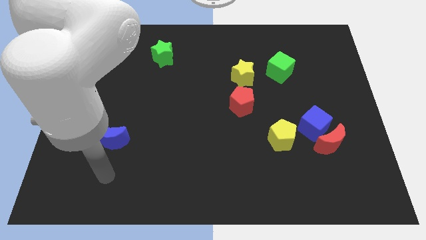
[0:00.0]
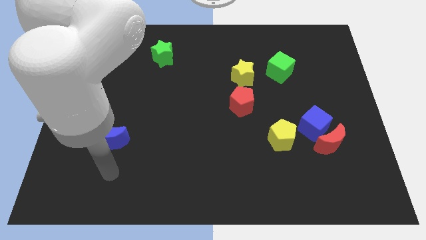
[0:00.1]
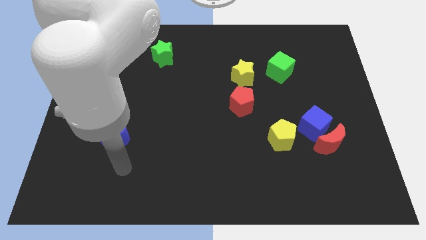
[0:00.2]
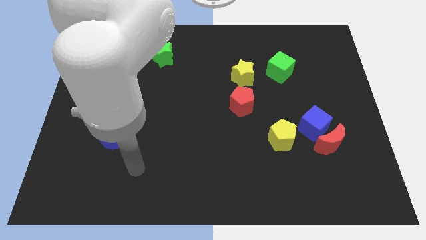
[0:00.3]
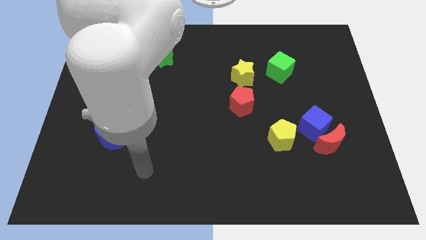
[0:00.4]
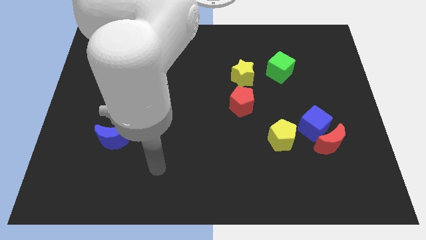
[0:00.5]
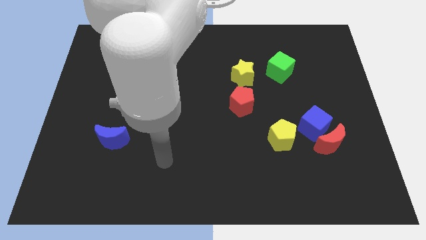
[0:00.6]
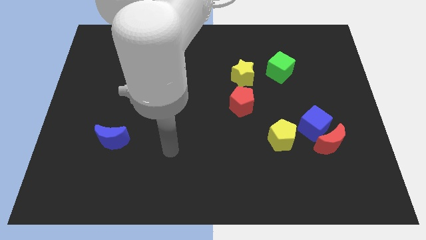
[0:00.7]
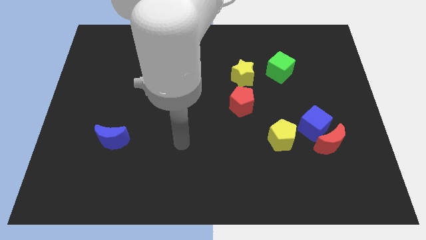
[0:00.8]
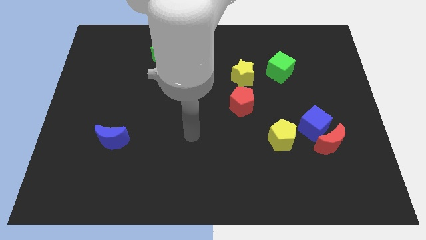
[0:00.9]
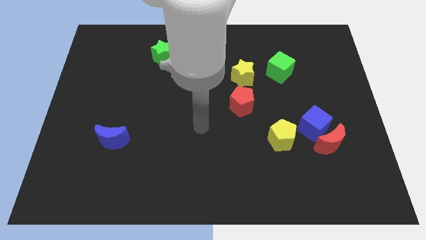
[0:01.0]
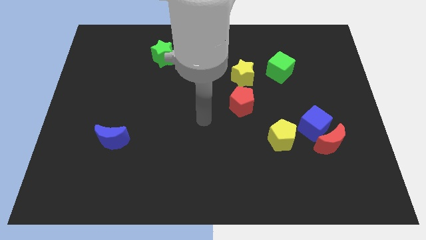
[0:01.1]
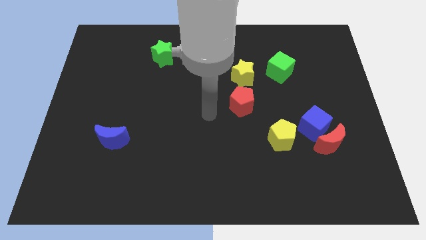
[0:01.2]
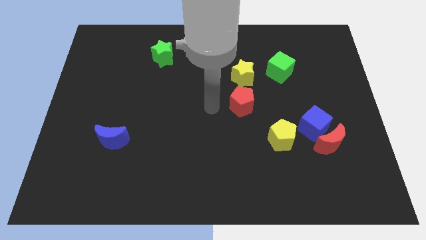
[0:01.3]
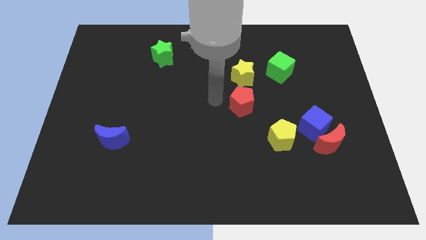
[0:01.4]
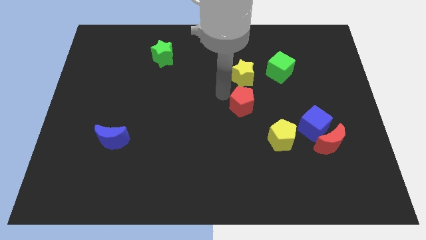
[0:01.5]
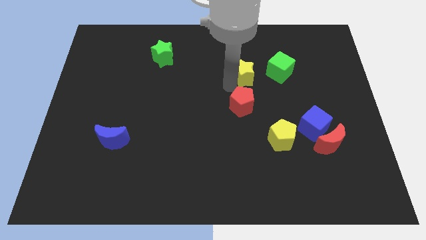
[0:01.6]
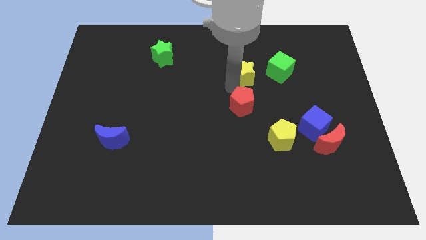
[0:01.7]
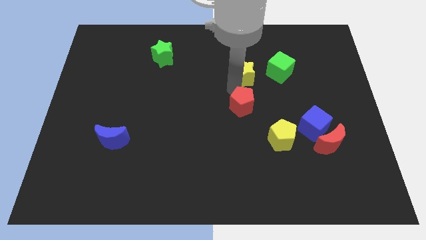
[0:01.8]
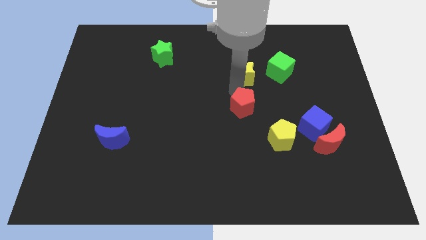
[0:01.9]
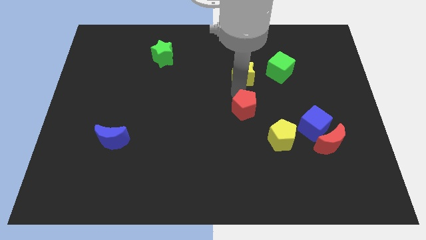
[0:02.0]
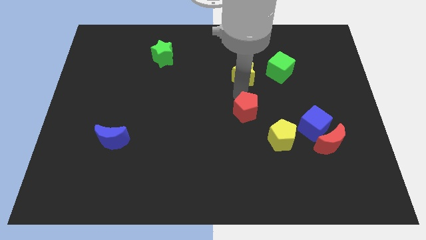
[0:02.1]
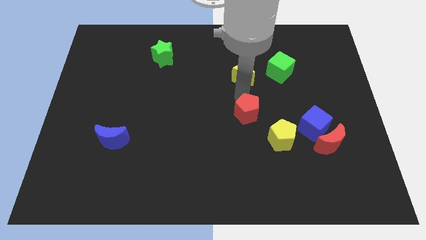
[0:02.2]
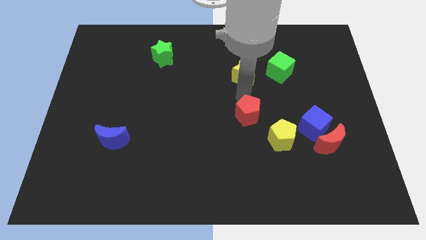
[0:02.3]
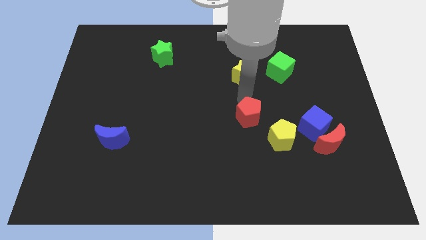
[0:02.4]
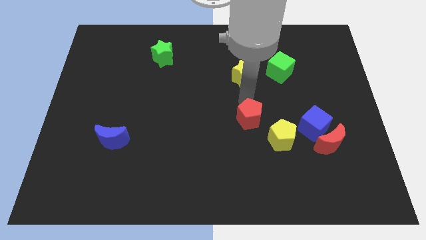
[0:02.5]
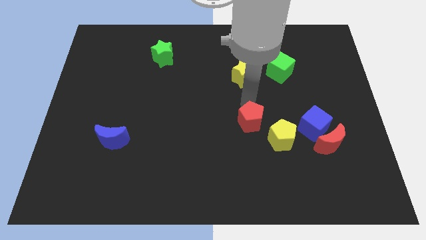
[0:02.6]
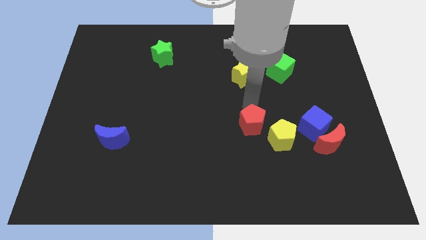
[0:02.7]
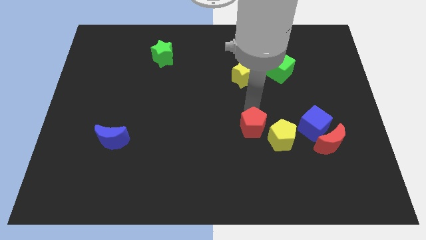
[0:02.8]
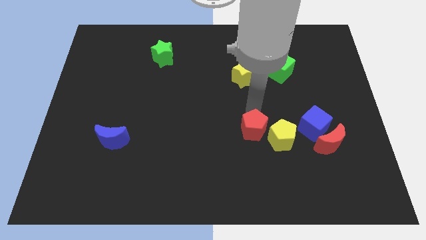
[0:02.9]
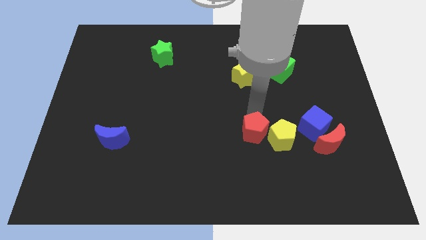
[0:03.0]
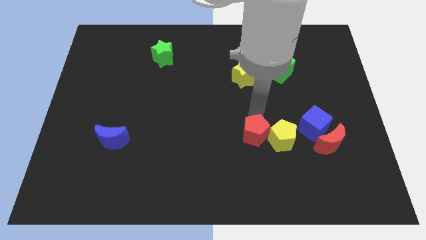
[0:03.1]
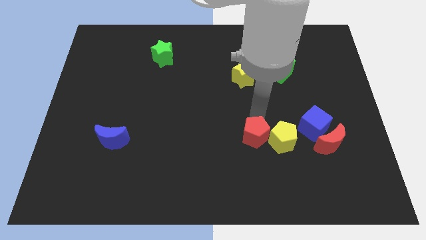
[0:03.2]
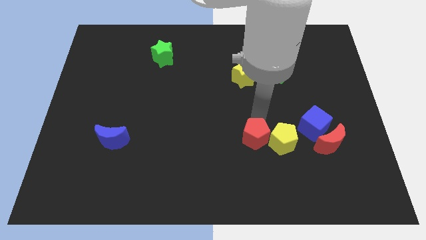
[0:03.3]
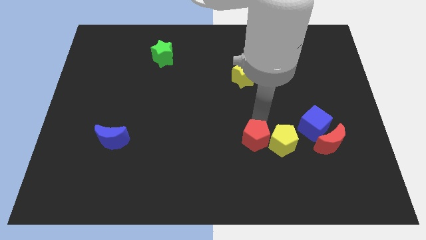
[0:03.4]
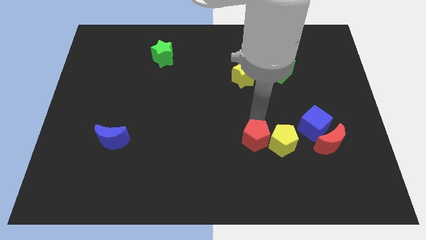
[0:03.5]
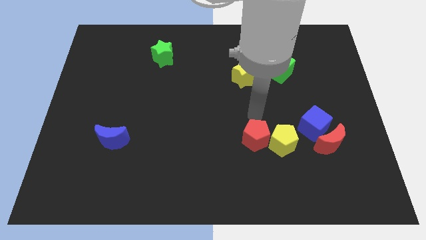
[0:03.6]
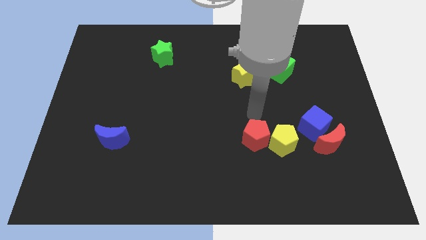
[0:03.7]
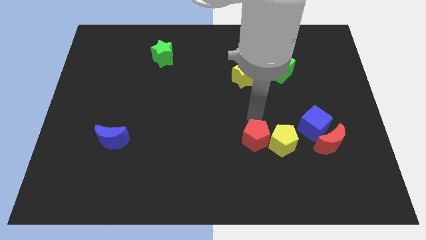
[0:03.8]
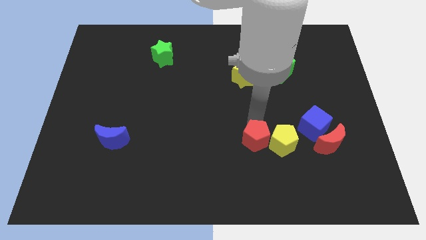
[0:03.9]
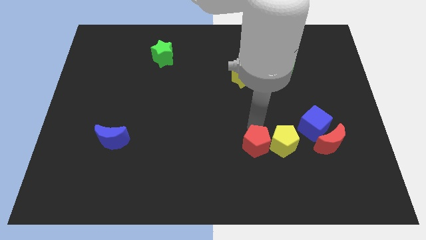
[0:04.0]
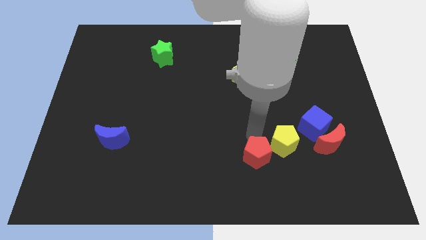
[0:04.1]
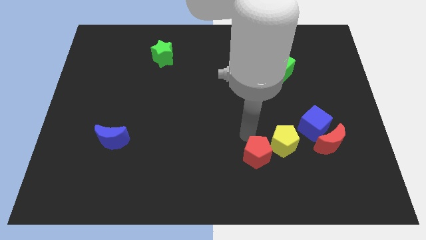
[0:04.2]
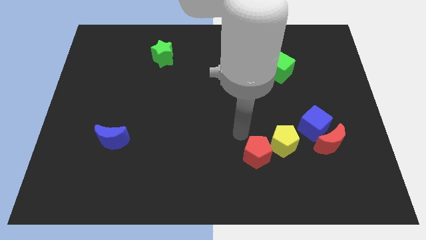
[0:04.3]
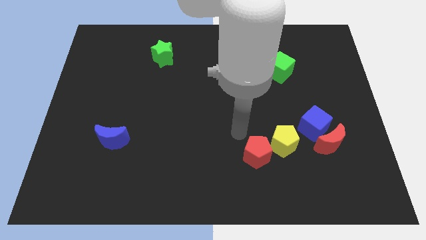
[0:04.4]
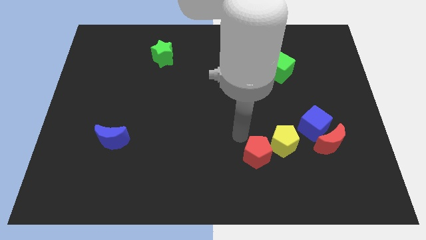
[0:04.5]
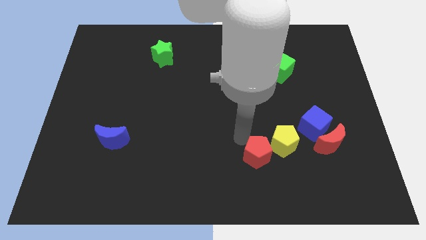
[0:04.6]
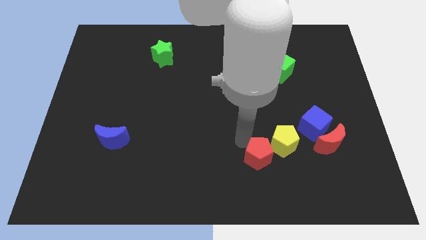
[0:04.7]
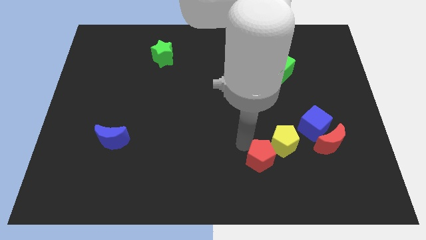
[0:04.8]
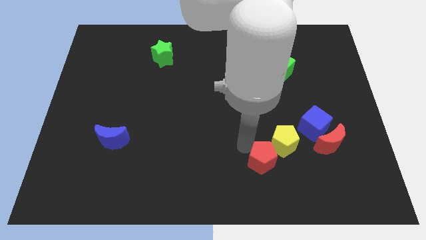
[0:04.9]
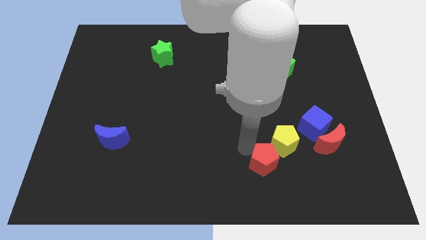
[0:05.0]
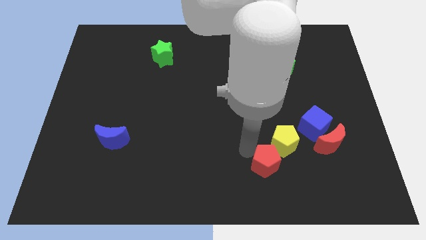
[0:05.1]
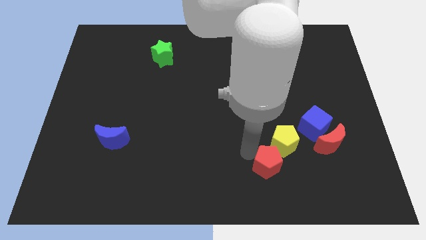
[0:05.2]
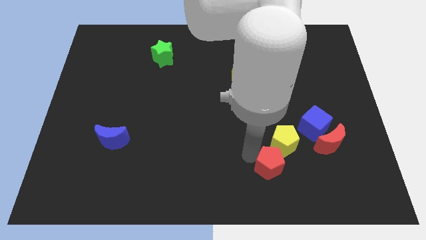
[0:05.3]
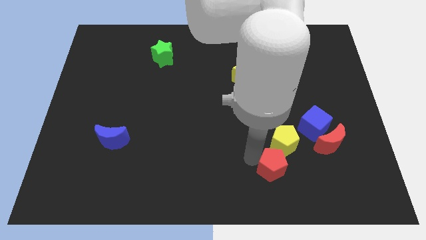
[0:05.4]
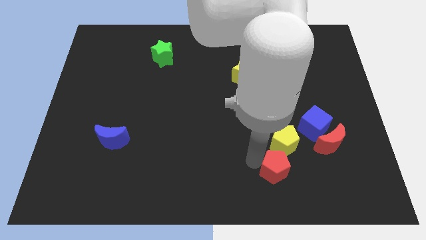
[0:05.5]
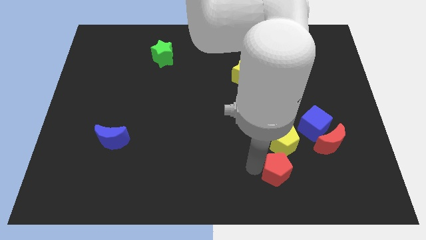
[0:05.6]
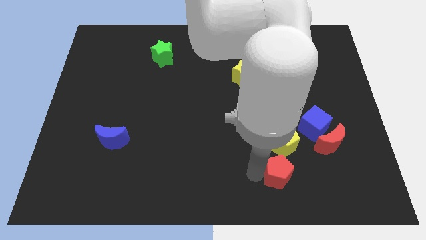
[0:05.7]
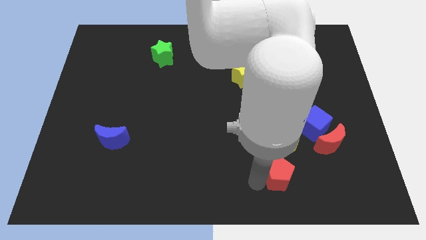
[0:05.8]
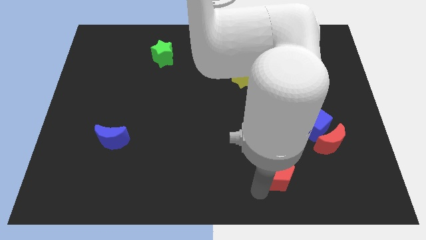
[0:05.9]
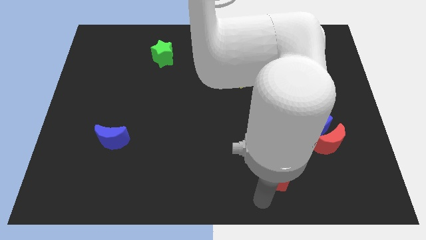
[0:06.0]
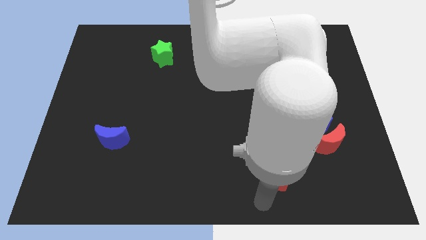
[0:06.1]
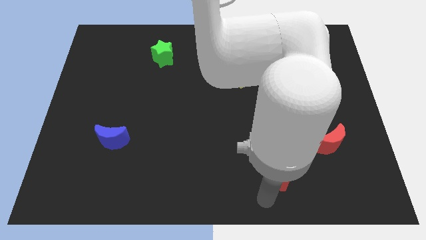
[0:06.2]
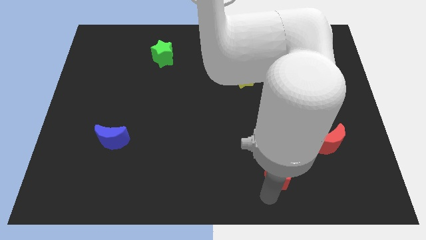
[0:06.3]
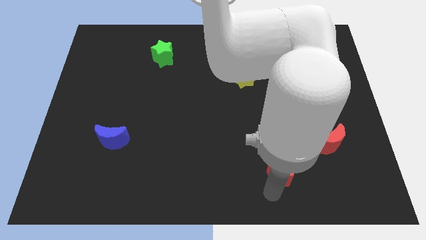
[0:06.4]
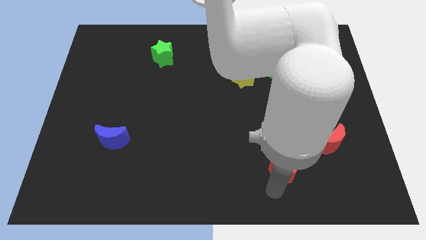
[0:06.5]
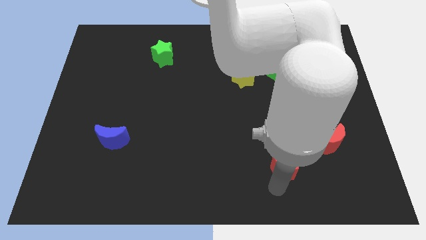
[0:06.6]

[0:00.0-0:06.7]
push the red pentagon to the bottom left side of the blue cube

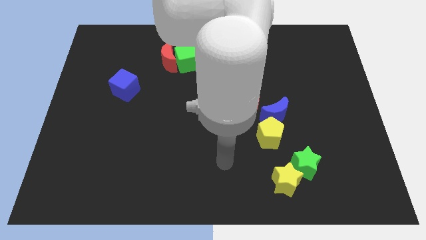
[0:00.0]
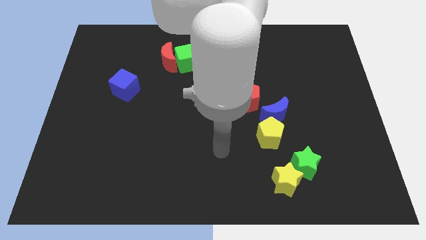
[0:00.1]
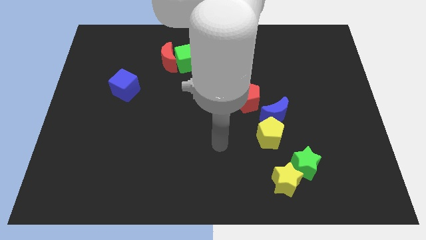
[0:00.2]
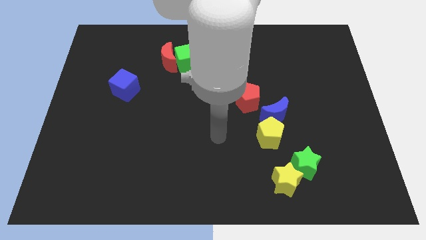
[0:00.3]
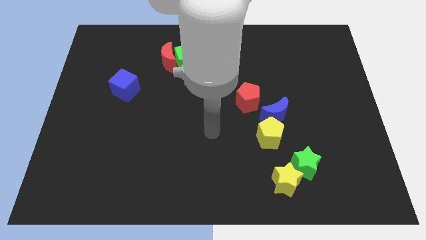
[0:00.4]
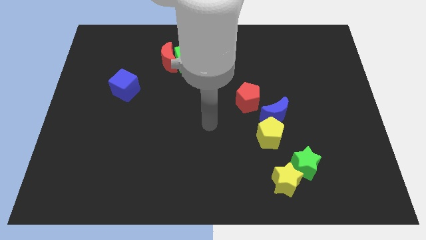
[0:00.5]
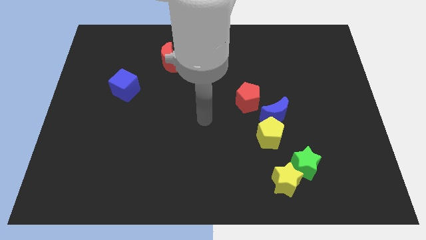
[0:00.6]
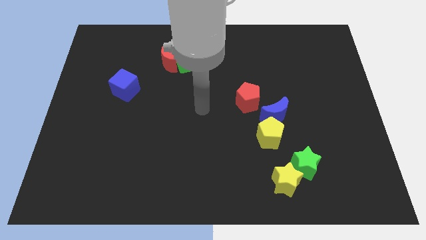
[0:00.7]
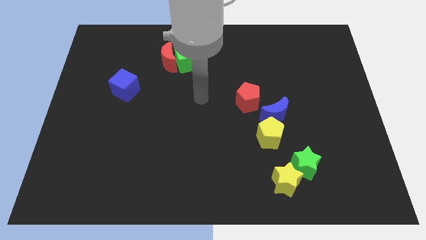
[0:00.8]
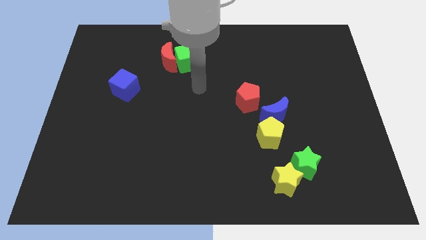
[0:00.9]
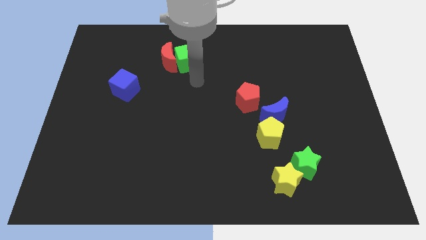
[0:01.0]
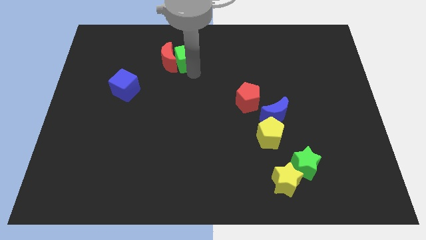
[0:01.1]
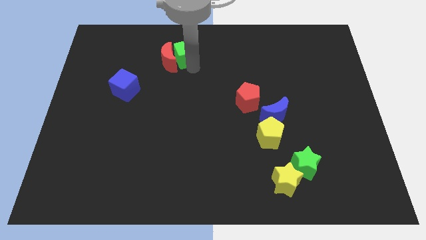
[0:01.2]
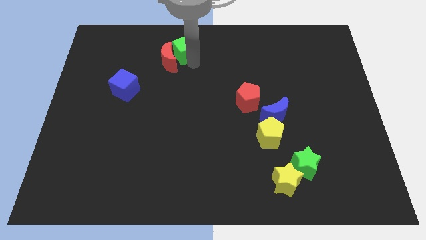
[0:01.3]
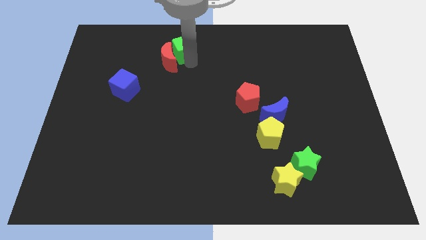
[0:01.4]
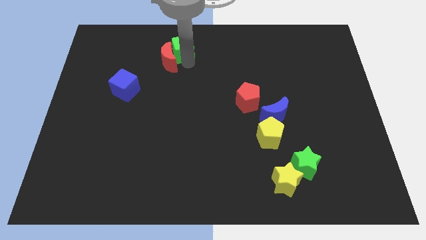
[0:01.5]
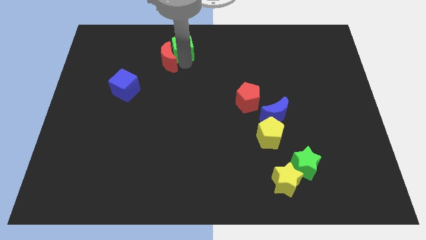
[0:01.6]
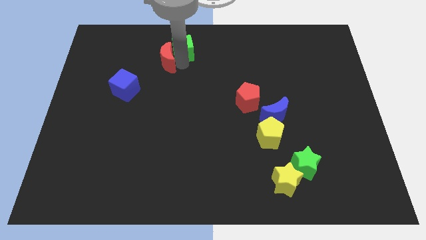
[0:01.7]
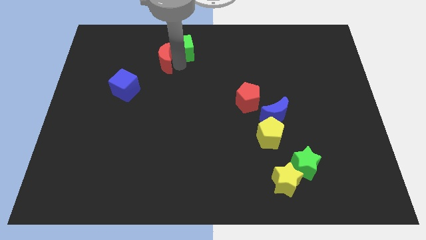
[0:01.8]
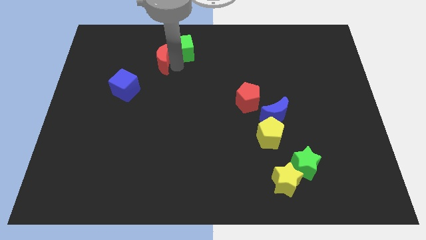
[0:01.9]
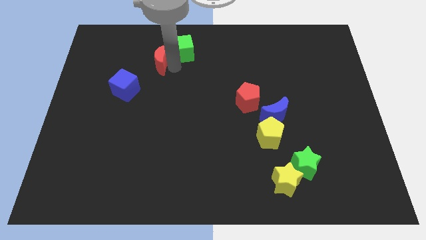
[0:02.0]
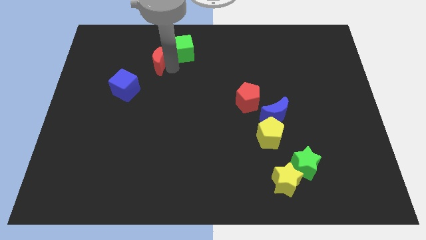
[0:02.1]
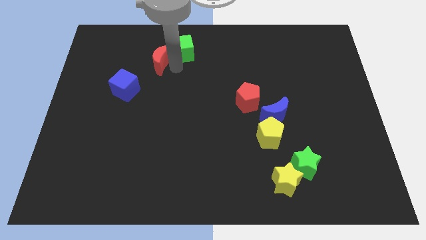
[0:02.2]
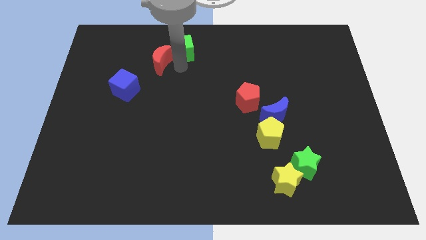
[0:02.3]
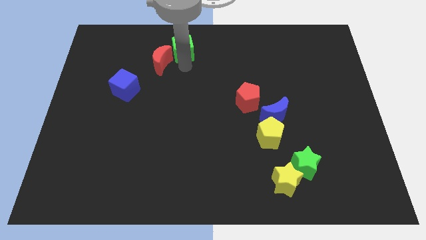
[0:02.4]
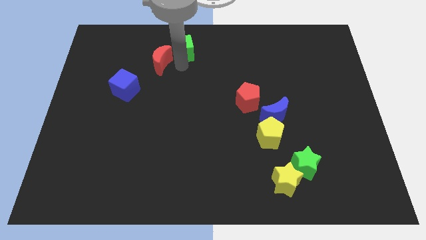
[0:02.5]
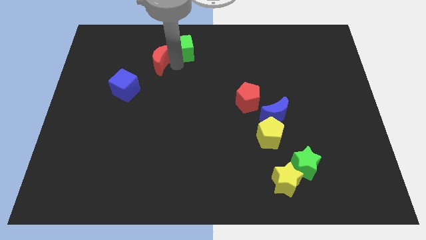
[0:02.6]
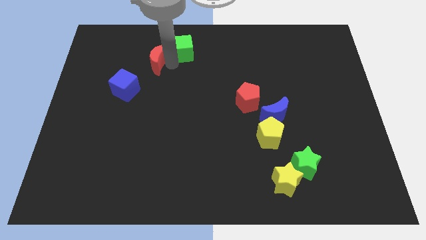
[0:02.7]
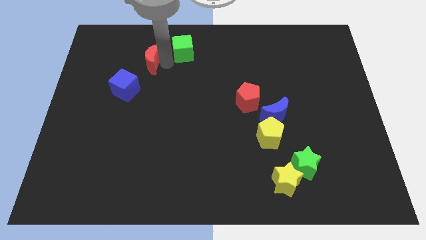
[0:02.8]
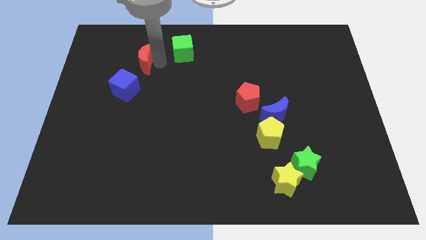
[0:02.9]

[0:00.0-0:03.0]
push the red moon to the top of the blue cube
